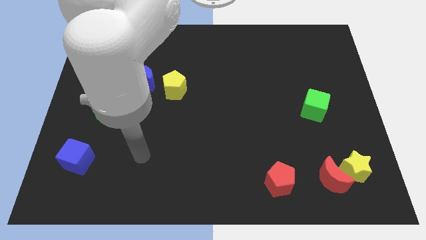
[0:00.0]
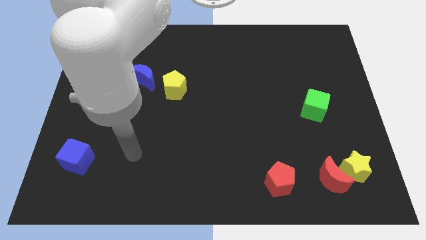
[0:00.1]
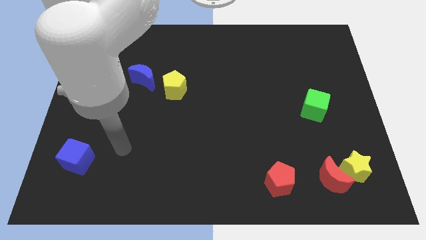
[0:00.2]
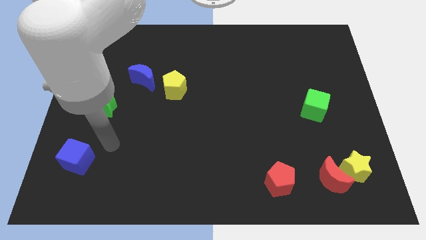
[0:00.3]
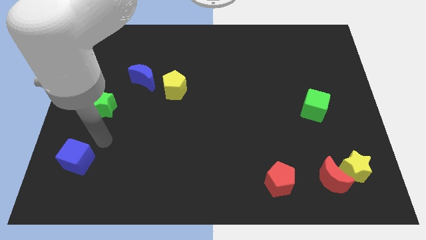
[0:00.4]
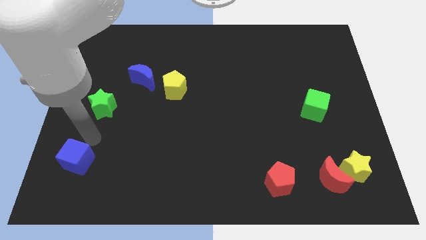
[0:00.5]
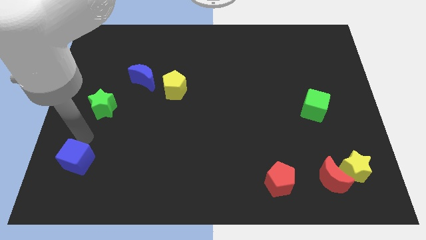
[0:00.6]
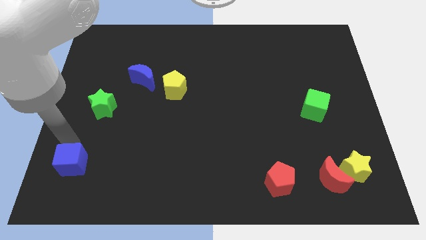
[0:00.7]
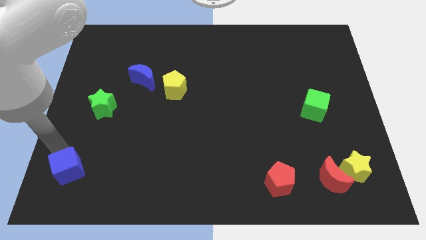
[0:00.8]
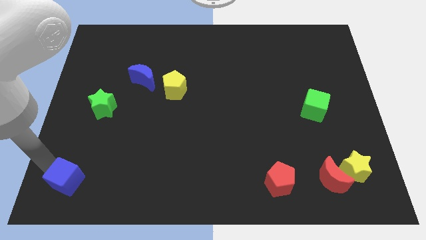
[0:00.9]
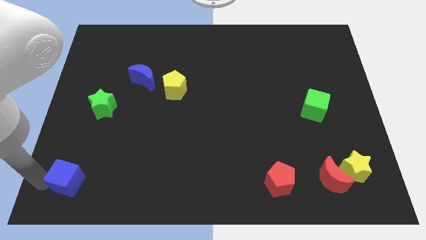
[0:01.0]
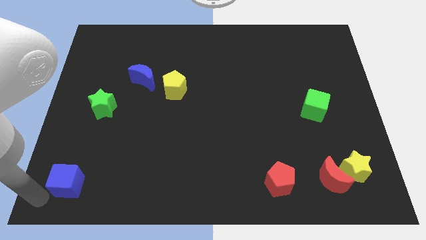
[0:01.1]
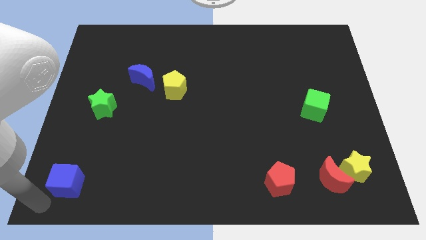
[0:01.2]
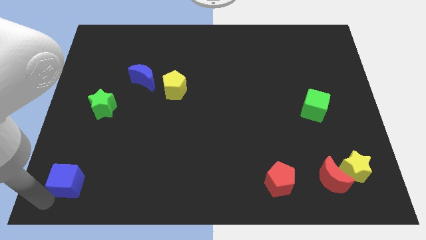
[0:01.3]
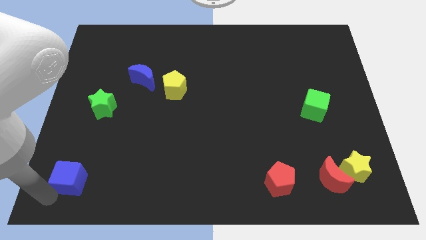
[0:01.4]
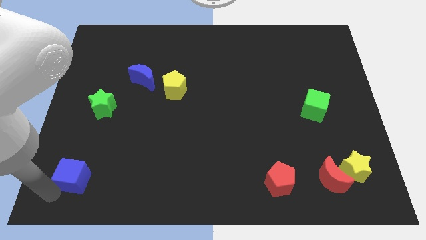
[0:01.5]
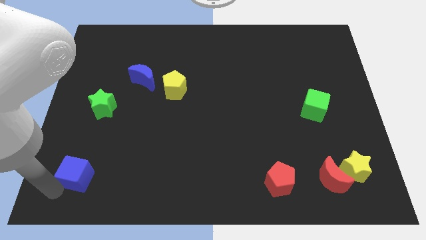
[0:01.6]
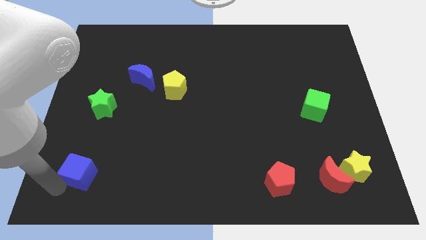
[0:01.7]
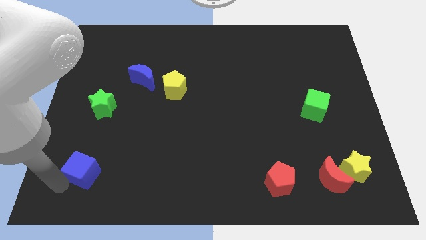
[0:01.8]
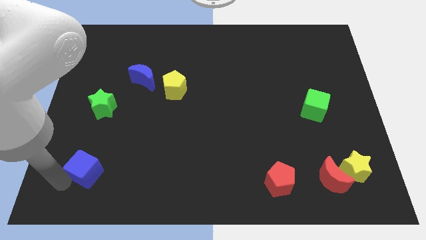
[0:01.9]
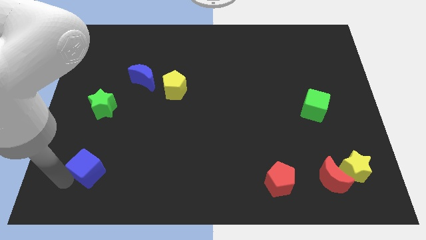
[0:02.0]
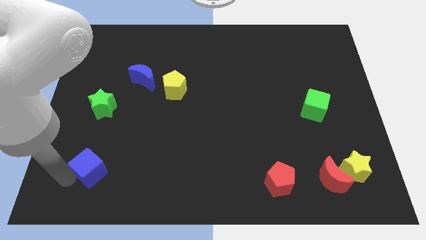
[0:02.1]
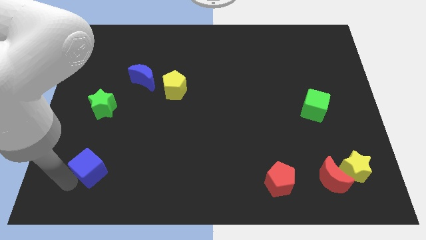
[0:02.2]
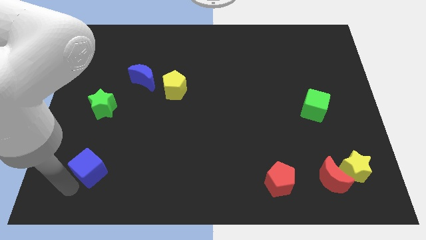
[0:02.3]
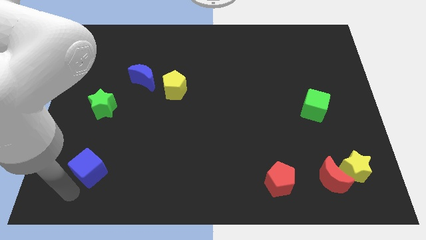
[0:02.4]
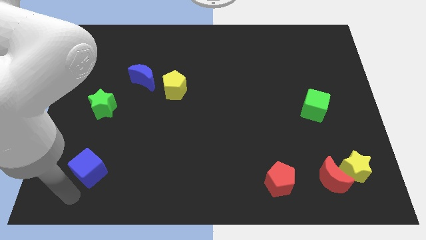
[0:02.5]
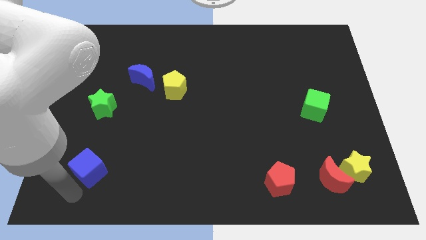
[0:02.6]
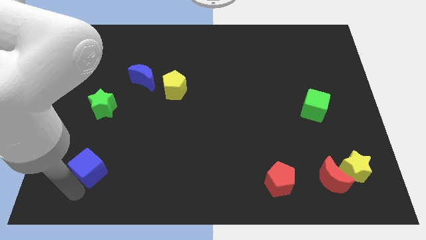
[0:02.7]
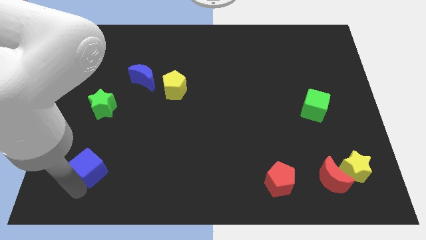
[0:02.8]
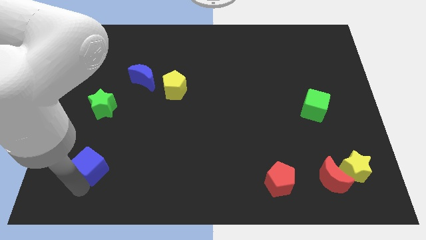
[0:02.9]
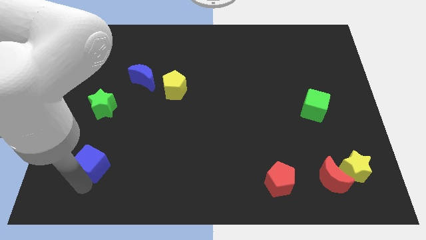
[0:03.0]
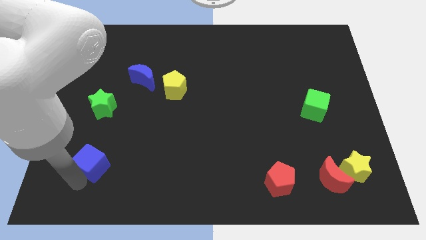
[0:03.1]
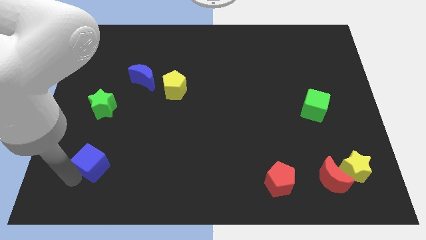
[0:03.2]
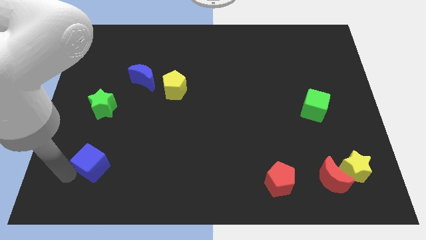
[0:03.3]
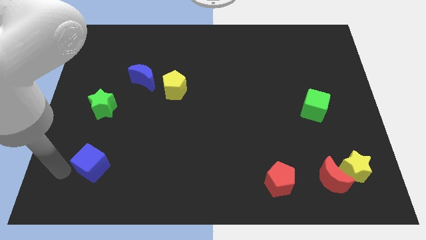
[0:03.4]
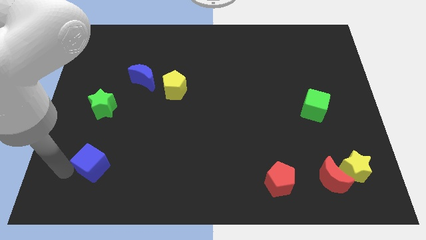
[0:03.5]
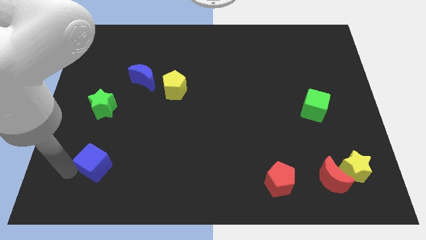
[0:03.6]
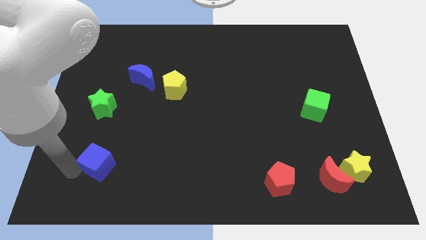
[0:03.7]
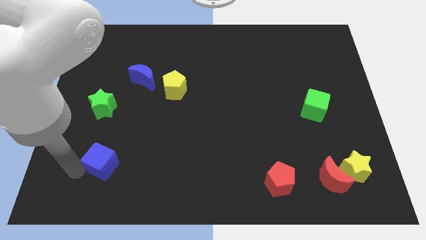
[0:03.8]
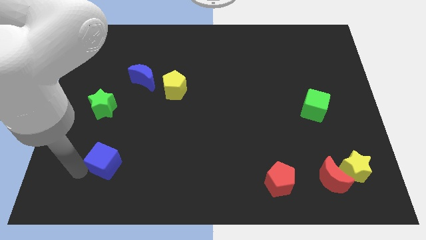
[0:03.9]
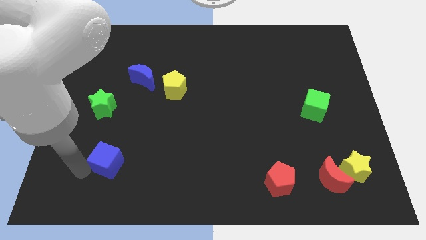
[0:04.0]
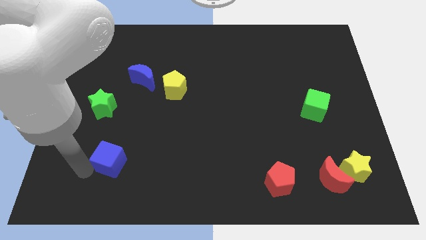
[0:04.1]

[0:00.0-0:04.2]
move the blue cube somewhat to the right

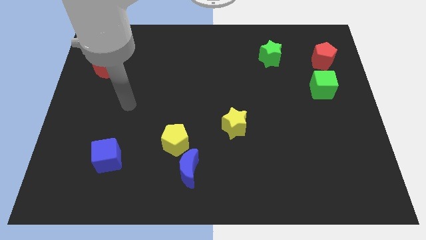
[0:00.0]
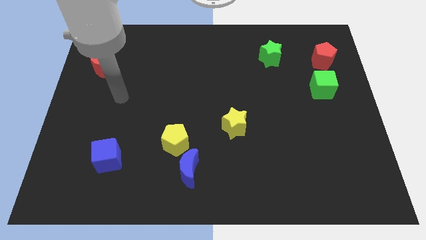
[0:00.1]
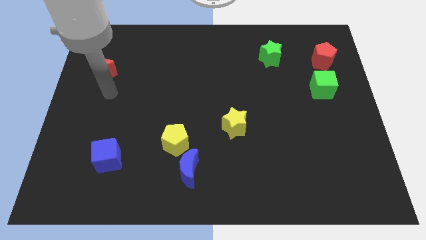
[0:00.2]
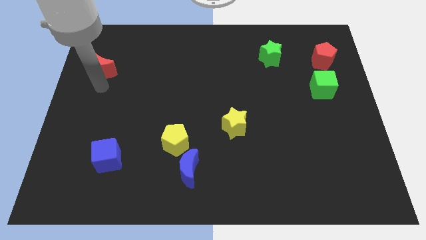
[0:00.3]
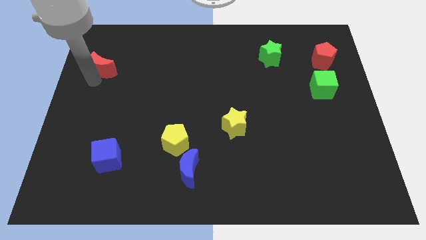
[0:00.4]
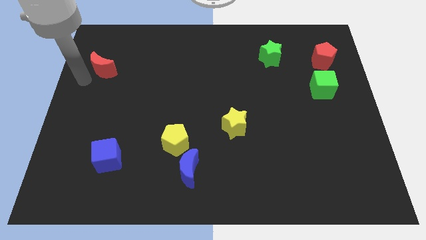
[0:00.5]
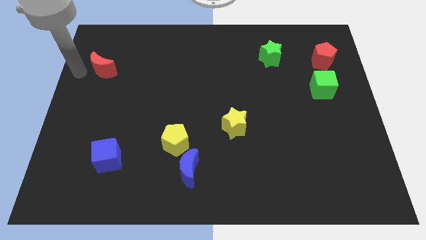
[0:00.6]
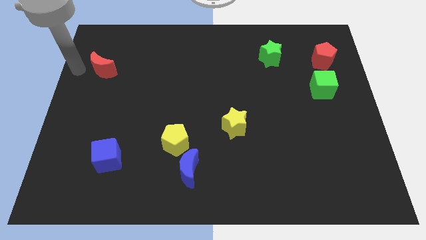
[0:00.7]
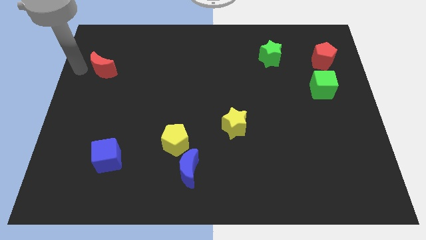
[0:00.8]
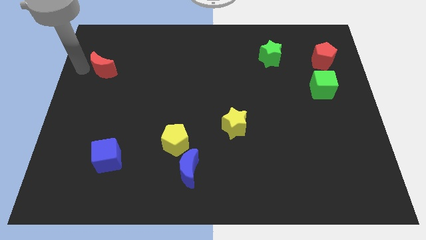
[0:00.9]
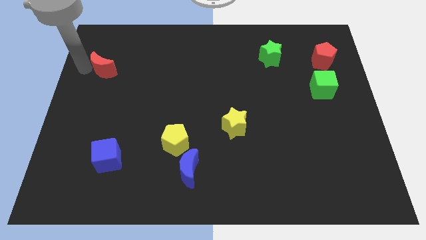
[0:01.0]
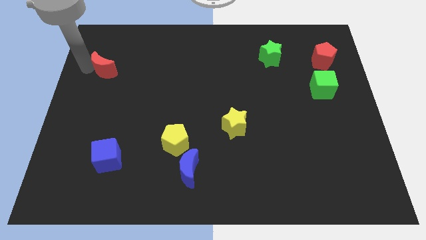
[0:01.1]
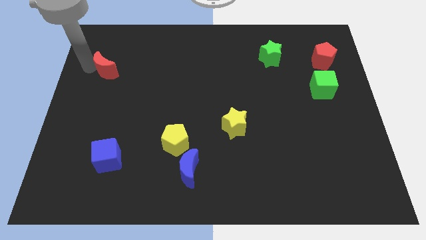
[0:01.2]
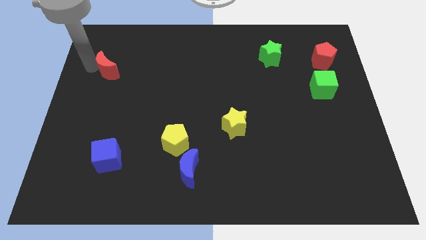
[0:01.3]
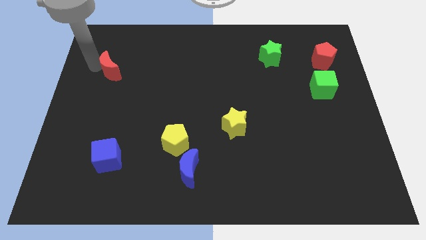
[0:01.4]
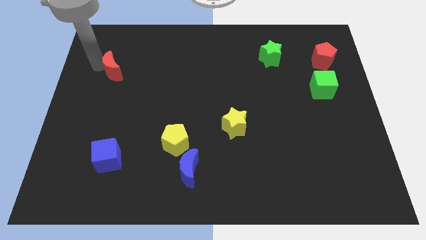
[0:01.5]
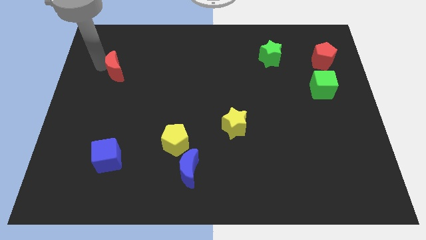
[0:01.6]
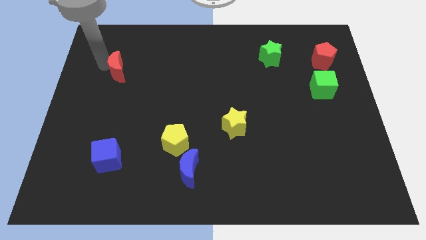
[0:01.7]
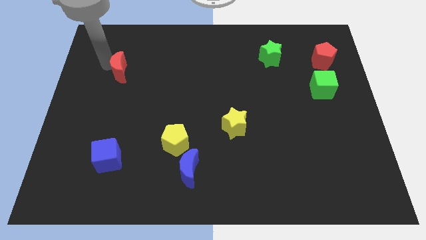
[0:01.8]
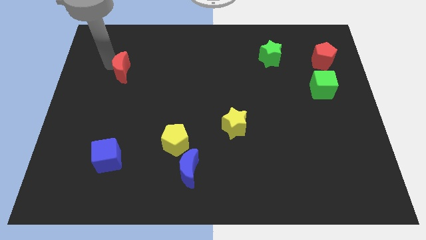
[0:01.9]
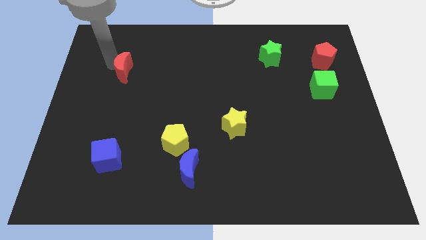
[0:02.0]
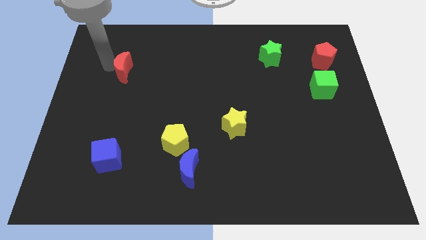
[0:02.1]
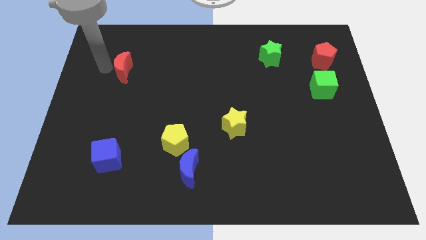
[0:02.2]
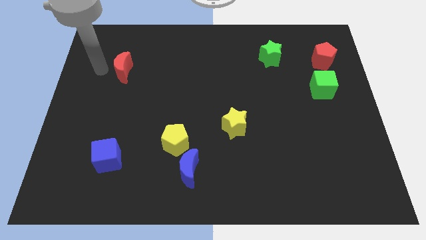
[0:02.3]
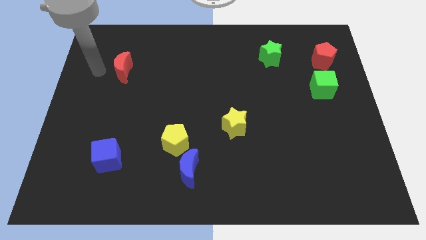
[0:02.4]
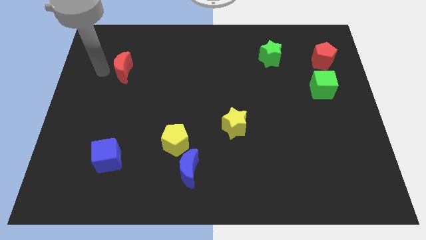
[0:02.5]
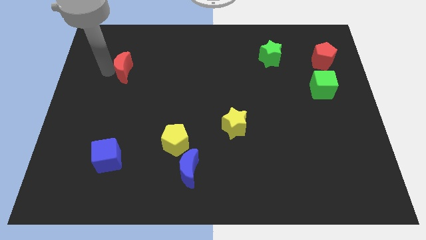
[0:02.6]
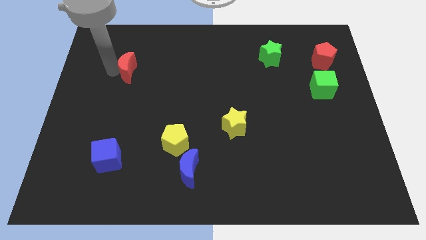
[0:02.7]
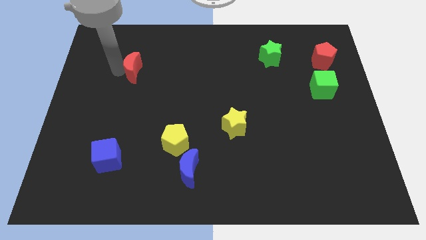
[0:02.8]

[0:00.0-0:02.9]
push the red moon right a little bit

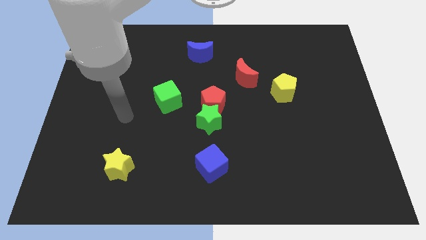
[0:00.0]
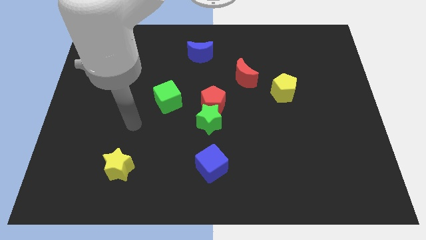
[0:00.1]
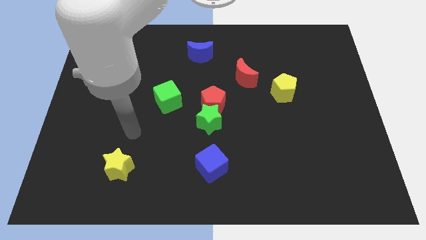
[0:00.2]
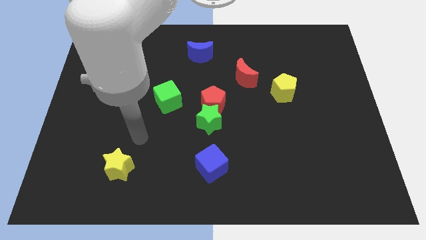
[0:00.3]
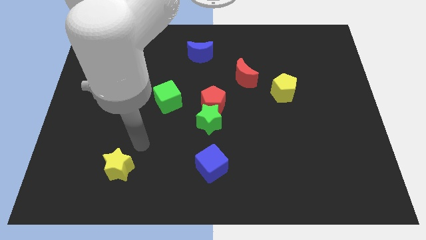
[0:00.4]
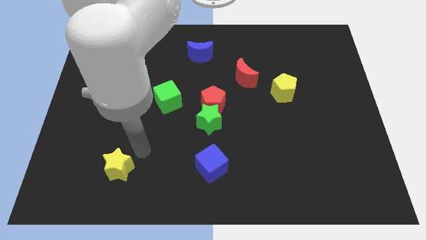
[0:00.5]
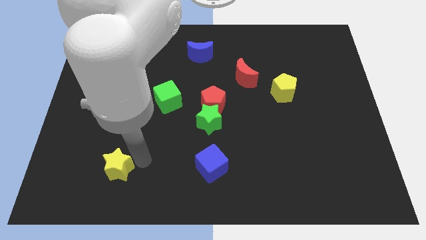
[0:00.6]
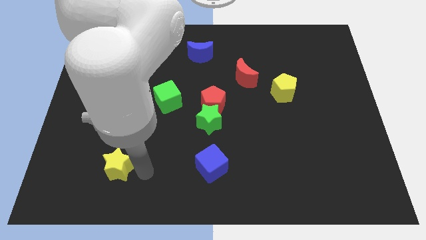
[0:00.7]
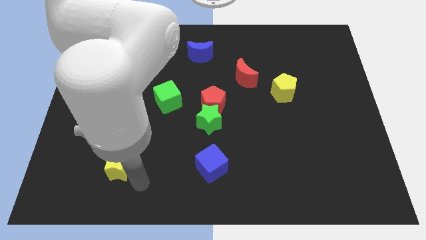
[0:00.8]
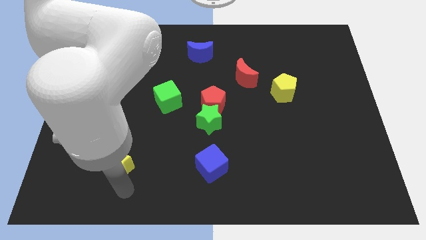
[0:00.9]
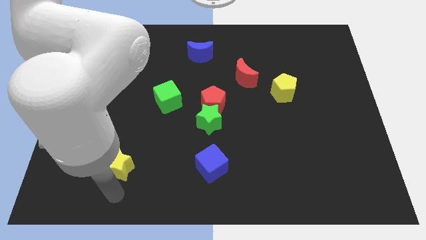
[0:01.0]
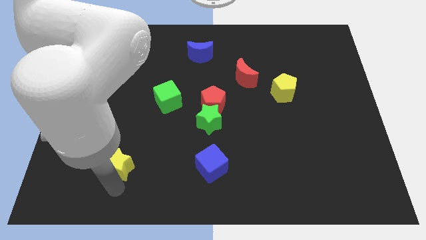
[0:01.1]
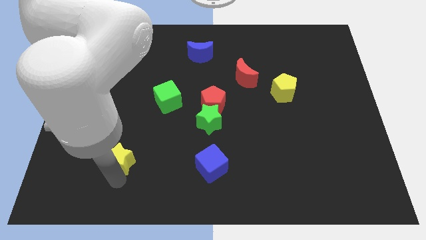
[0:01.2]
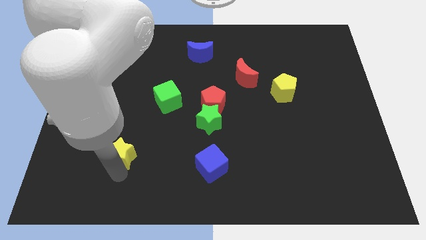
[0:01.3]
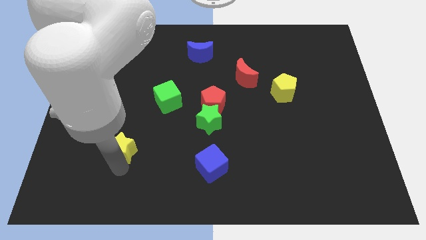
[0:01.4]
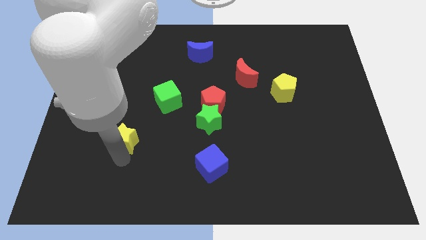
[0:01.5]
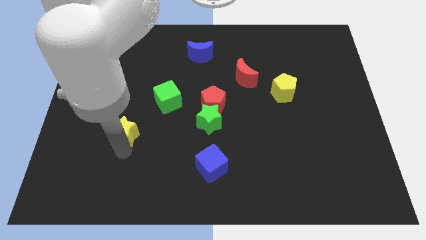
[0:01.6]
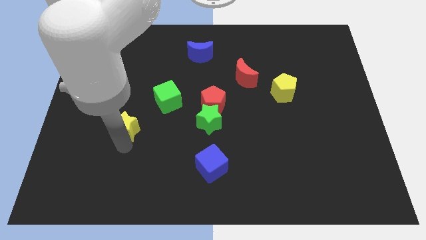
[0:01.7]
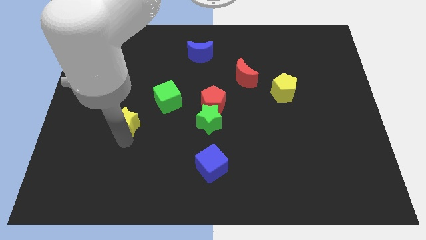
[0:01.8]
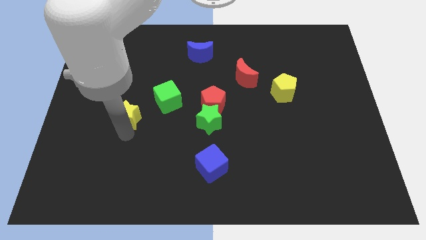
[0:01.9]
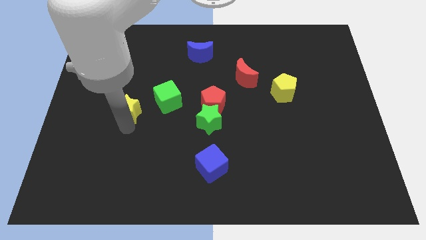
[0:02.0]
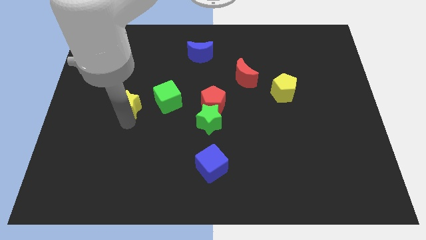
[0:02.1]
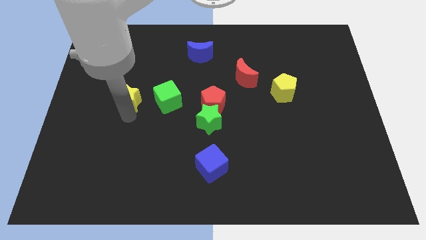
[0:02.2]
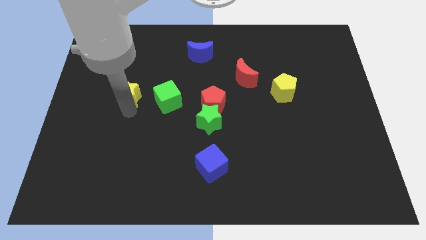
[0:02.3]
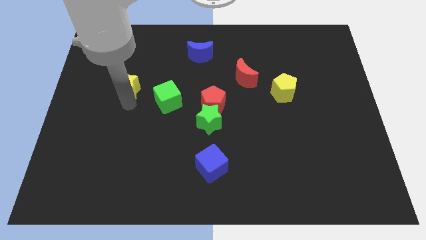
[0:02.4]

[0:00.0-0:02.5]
push the yellow star up
